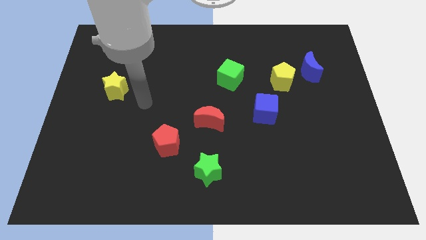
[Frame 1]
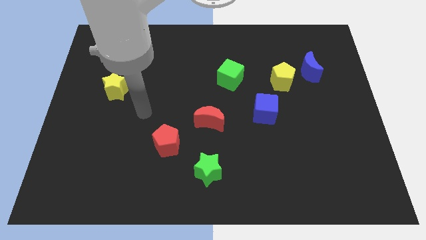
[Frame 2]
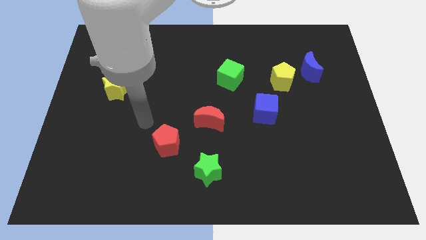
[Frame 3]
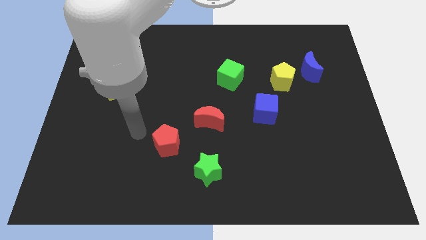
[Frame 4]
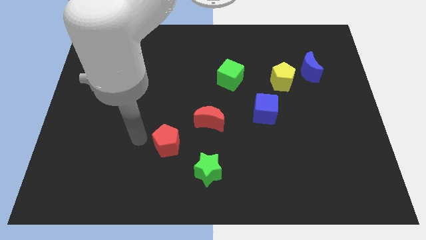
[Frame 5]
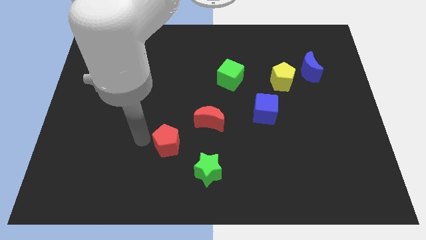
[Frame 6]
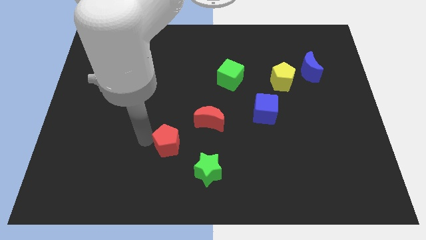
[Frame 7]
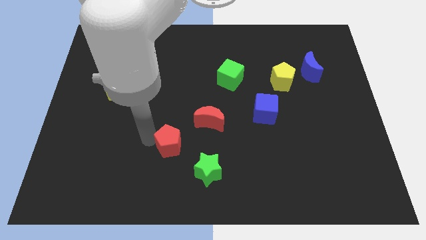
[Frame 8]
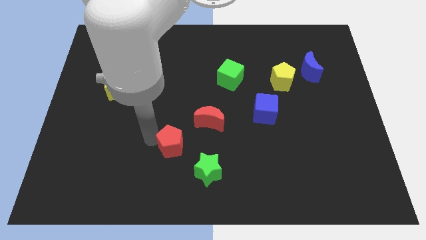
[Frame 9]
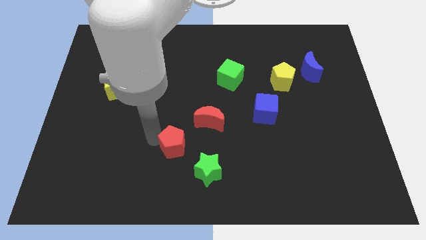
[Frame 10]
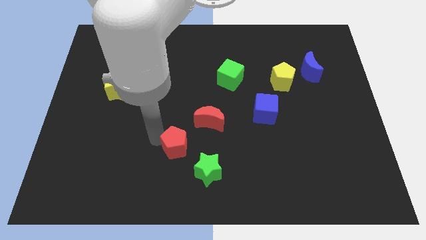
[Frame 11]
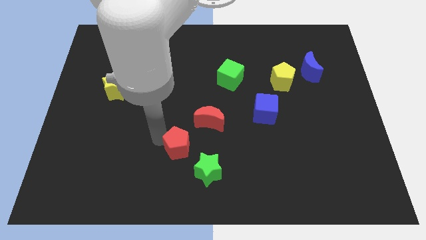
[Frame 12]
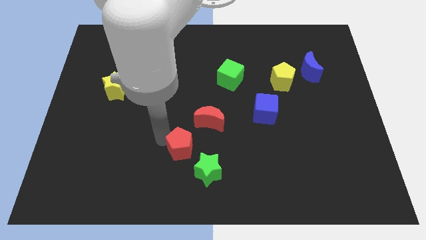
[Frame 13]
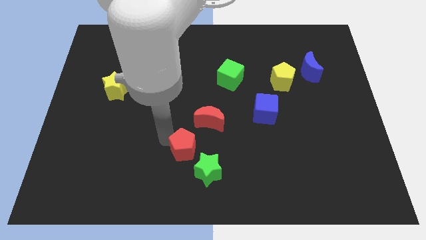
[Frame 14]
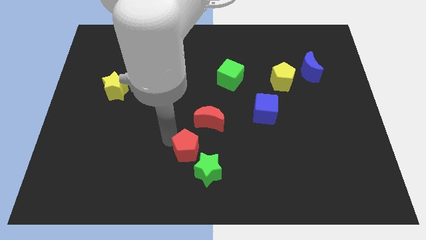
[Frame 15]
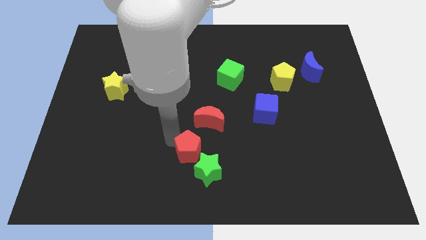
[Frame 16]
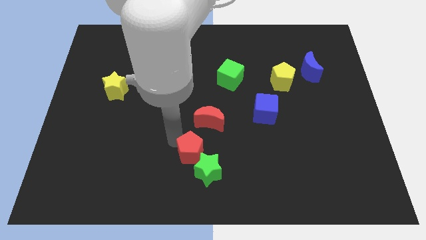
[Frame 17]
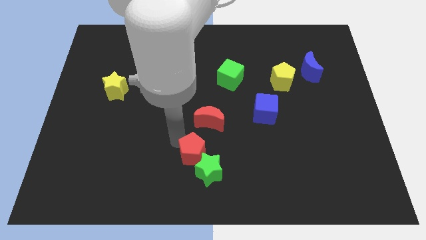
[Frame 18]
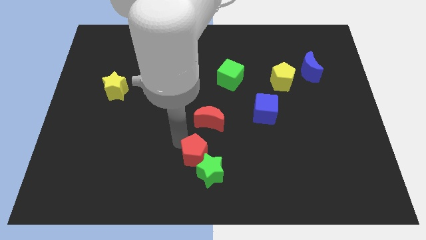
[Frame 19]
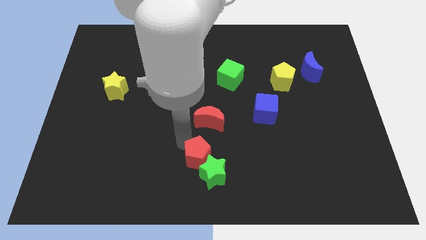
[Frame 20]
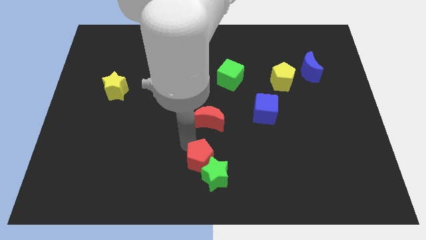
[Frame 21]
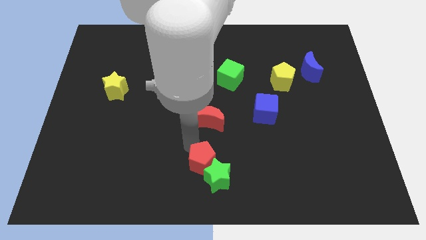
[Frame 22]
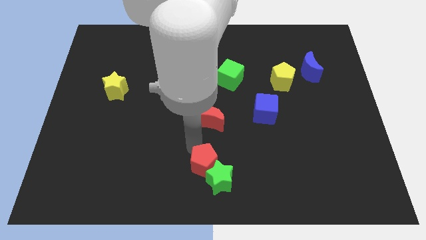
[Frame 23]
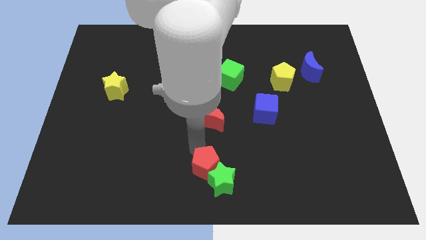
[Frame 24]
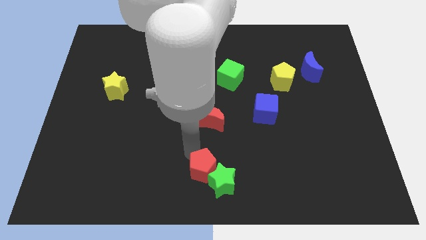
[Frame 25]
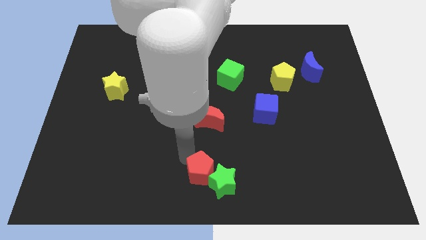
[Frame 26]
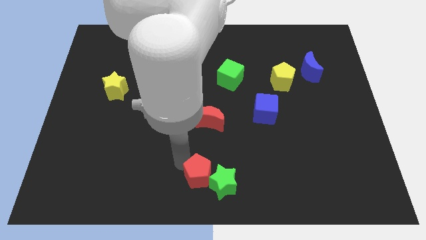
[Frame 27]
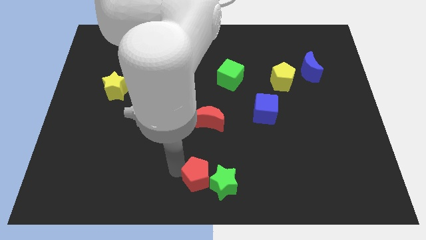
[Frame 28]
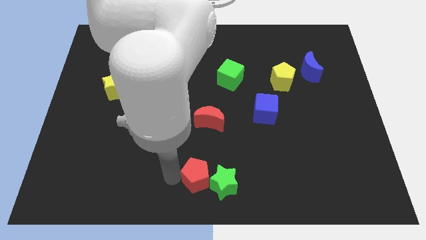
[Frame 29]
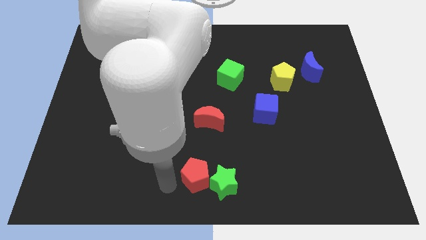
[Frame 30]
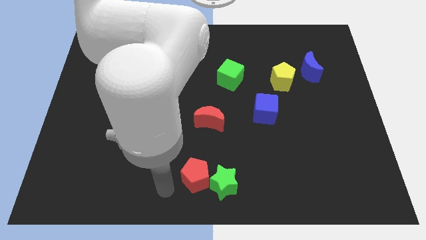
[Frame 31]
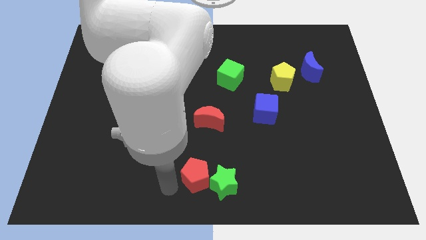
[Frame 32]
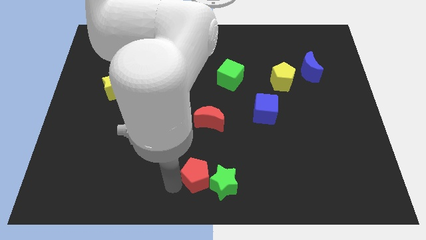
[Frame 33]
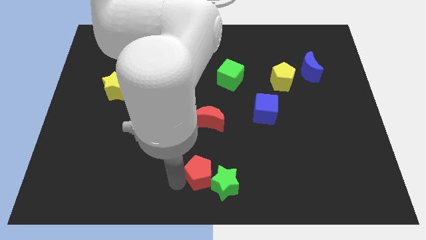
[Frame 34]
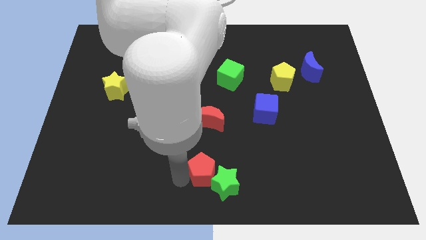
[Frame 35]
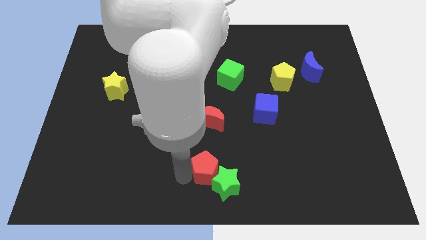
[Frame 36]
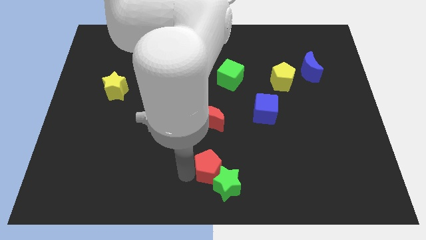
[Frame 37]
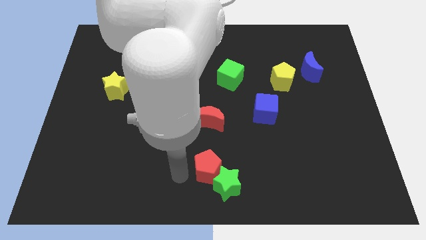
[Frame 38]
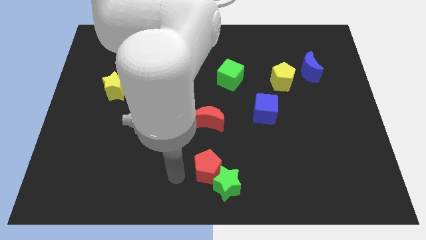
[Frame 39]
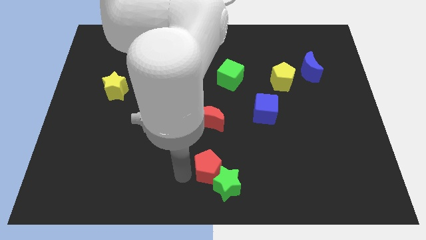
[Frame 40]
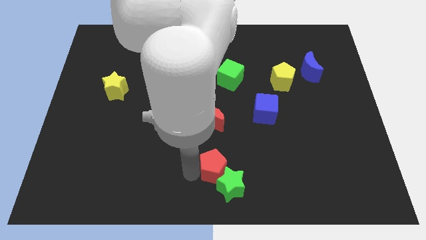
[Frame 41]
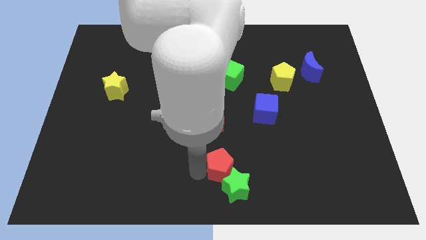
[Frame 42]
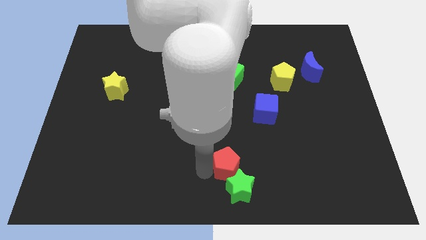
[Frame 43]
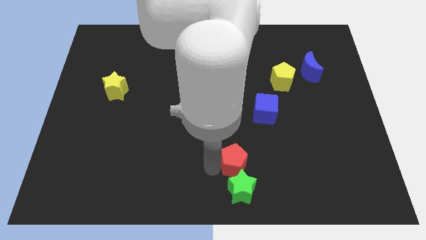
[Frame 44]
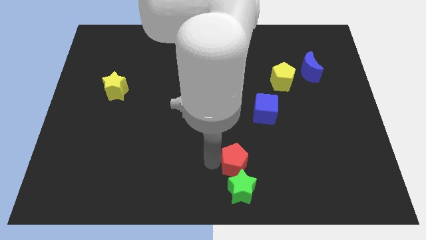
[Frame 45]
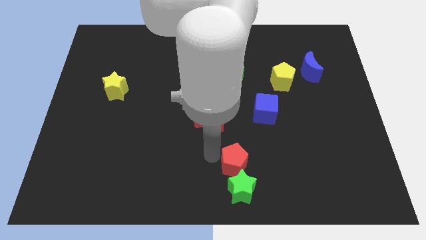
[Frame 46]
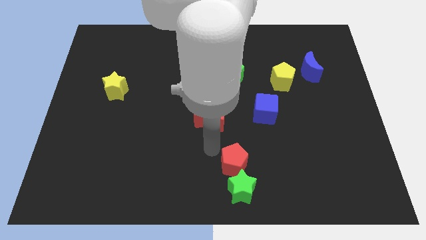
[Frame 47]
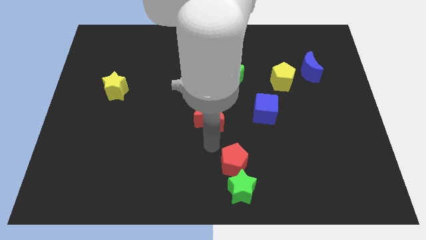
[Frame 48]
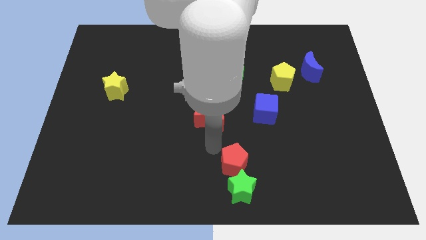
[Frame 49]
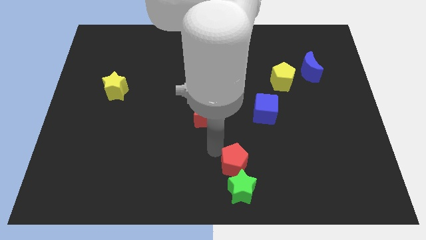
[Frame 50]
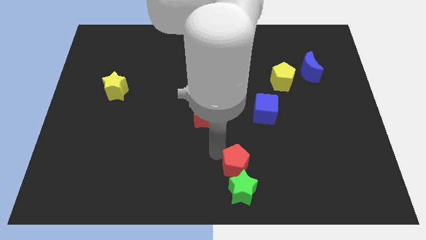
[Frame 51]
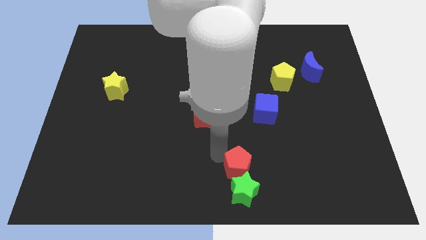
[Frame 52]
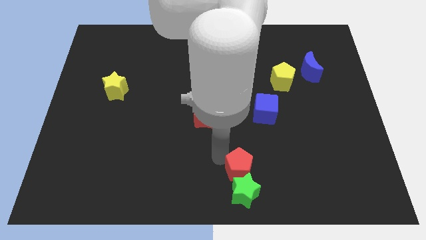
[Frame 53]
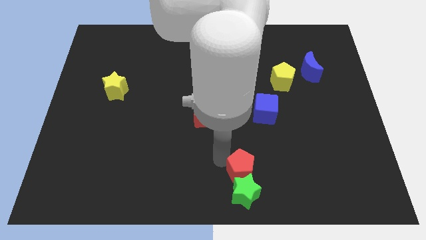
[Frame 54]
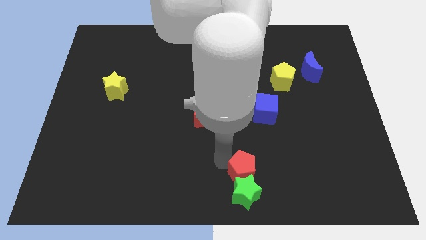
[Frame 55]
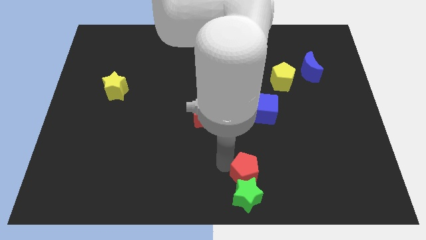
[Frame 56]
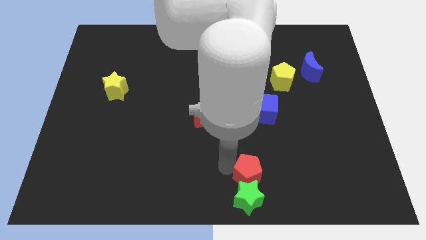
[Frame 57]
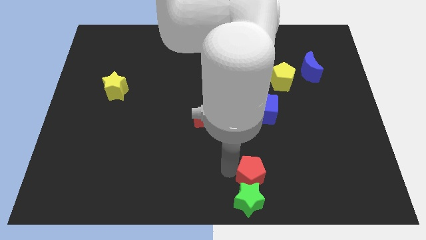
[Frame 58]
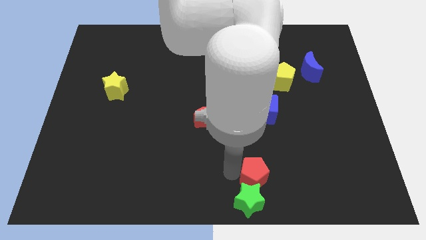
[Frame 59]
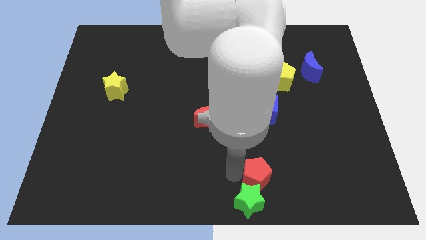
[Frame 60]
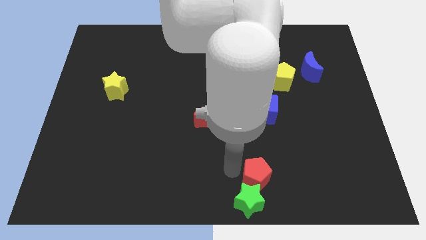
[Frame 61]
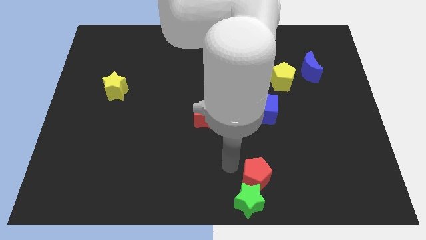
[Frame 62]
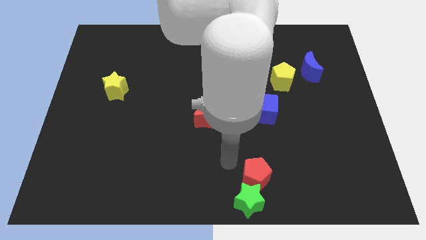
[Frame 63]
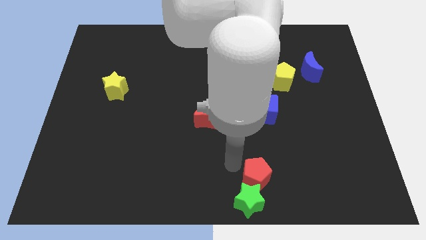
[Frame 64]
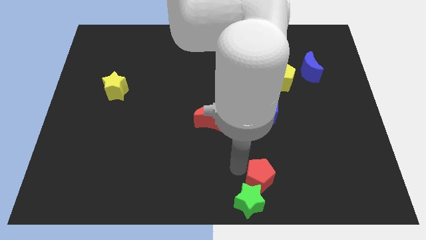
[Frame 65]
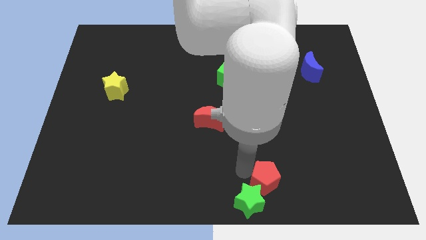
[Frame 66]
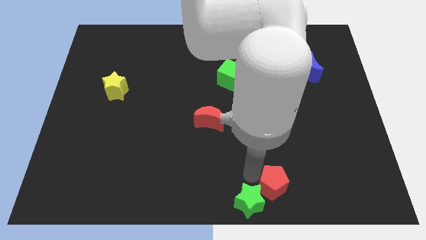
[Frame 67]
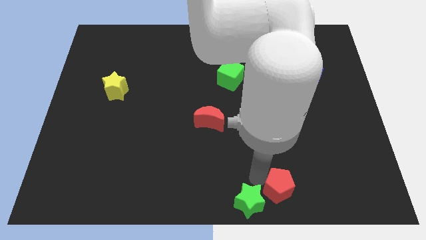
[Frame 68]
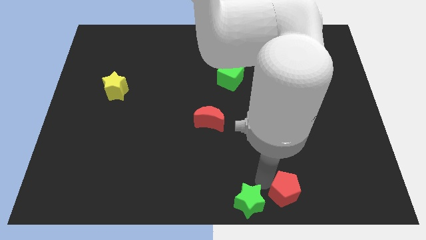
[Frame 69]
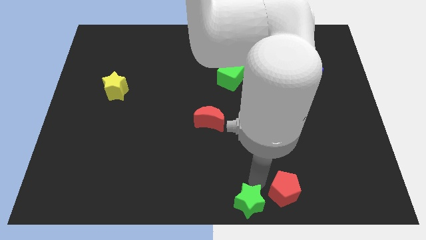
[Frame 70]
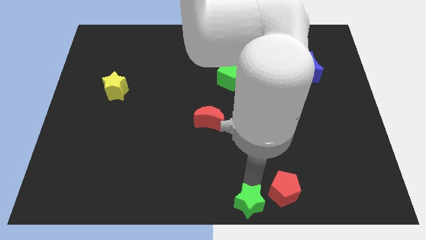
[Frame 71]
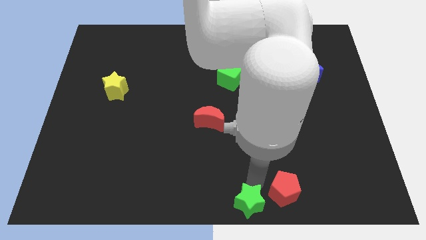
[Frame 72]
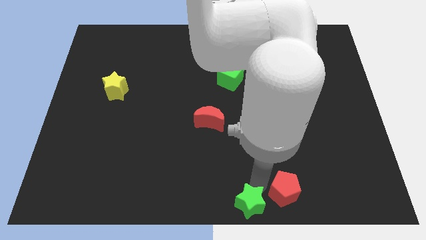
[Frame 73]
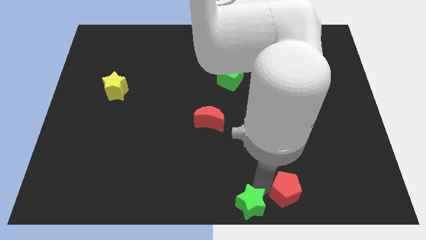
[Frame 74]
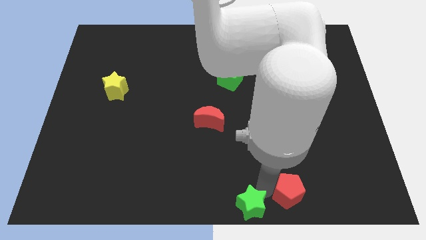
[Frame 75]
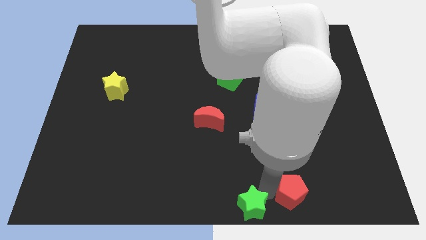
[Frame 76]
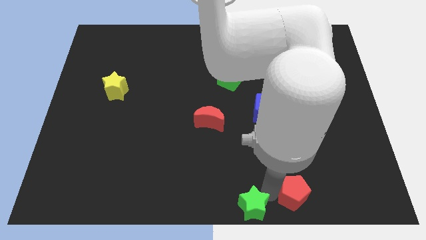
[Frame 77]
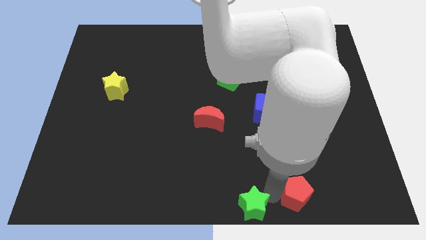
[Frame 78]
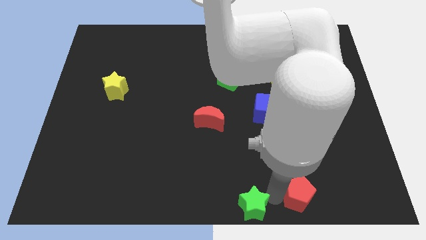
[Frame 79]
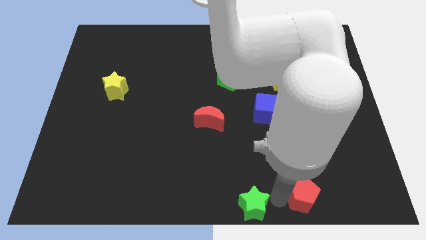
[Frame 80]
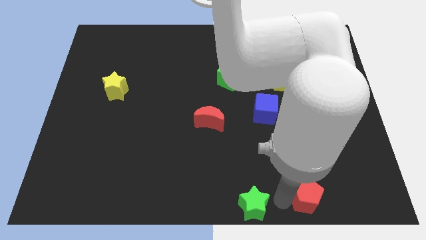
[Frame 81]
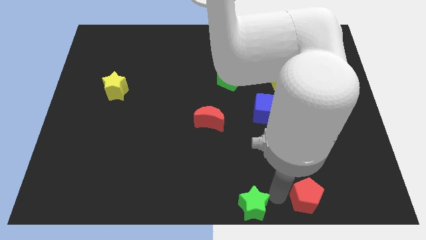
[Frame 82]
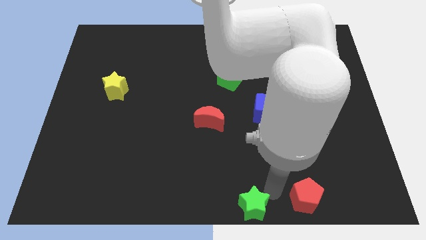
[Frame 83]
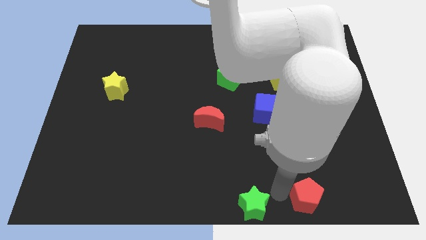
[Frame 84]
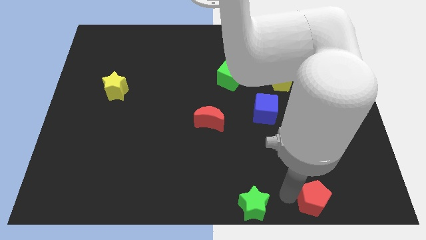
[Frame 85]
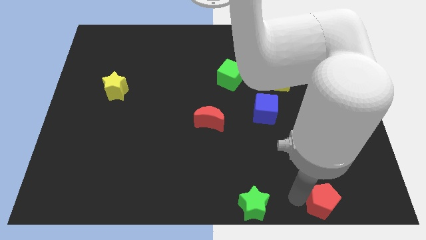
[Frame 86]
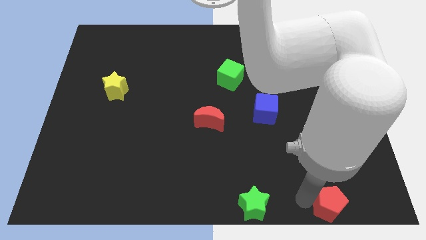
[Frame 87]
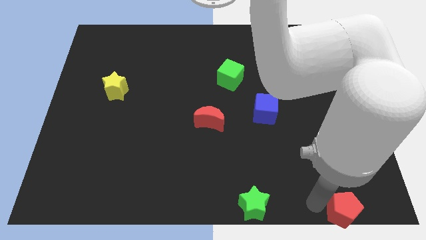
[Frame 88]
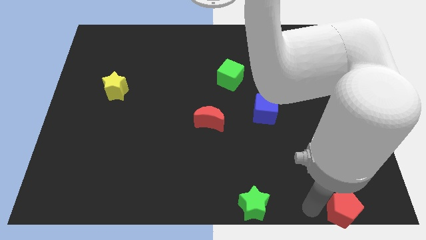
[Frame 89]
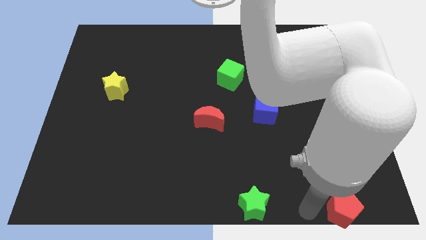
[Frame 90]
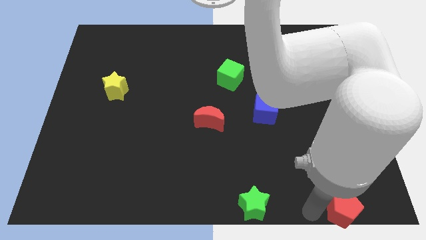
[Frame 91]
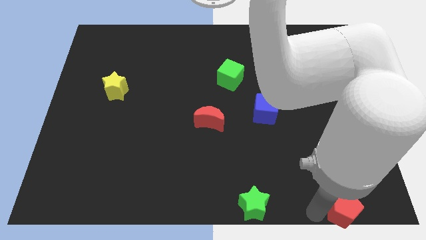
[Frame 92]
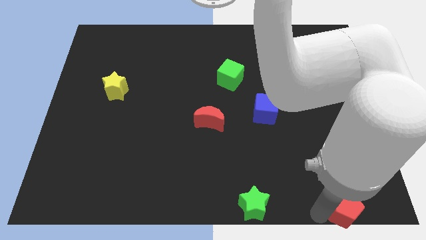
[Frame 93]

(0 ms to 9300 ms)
push the red pentagon to the bottom right
